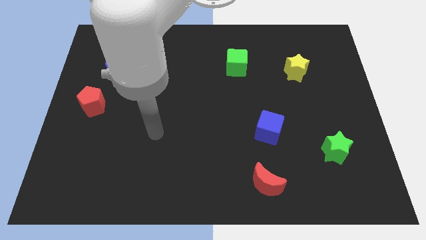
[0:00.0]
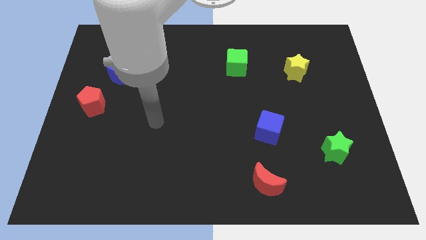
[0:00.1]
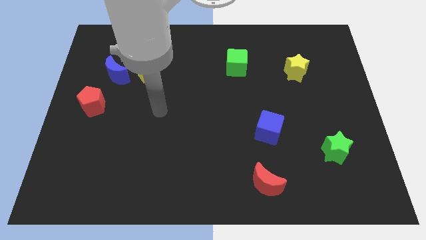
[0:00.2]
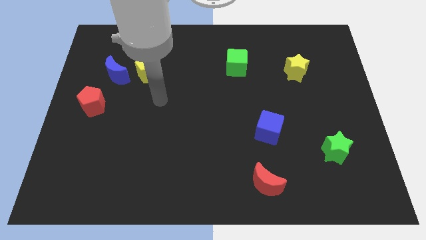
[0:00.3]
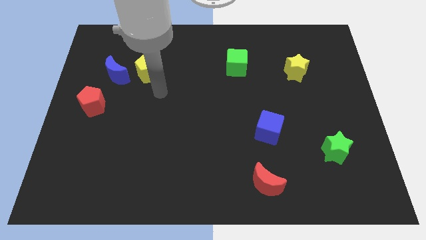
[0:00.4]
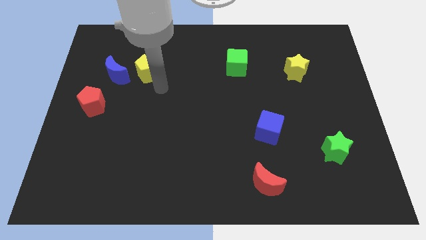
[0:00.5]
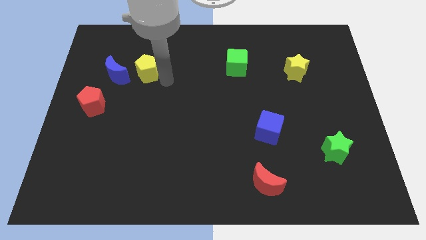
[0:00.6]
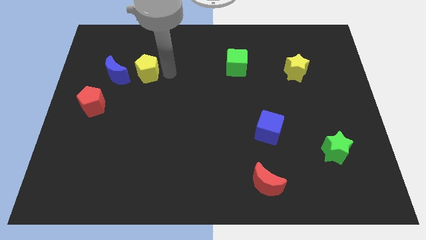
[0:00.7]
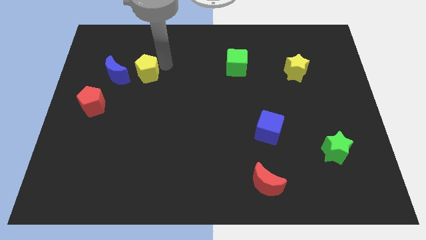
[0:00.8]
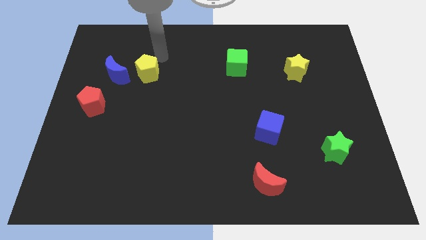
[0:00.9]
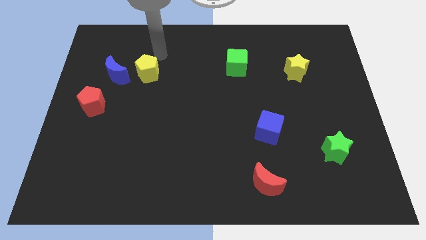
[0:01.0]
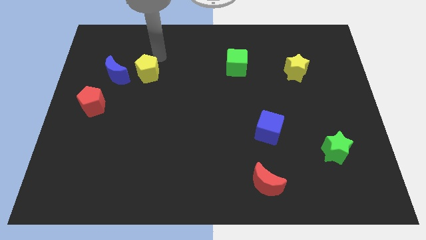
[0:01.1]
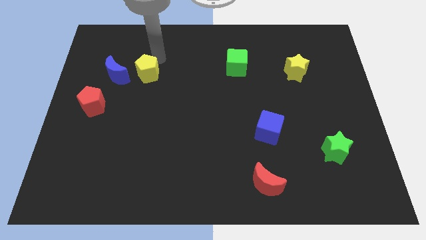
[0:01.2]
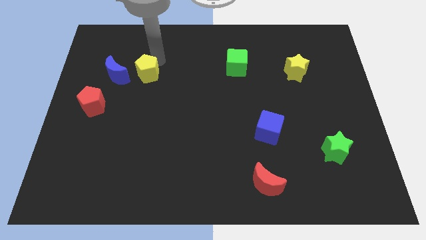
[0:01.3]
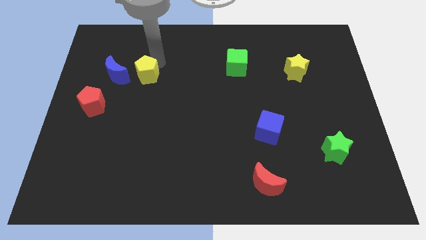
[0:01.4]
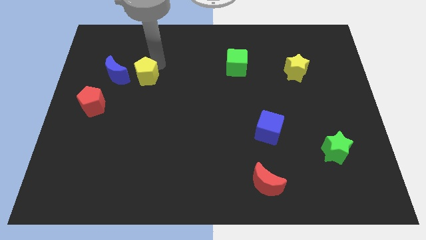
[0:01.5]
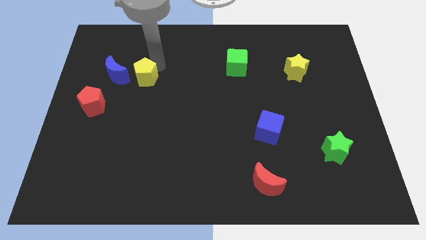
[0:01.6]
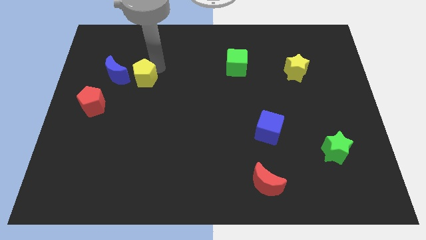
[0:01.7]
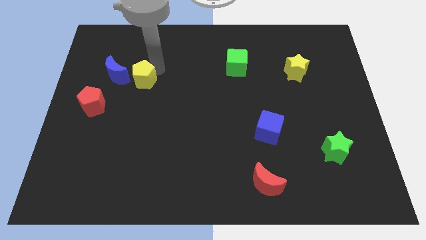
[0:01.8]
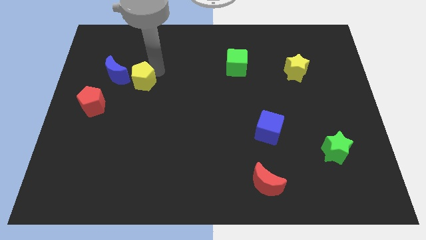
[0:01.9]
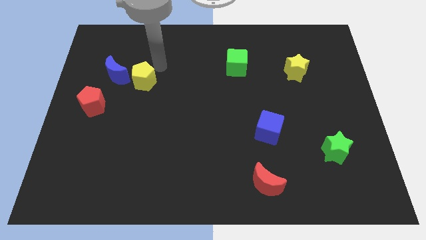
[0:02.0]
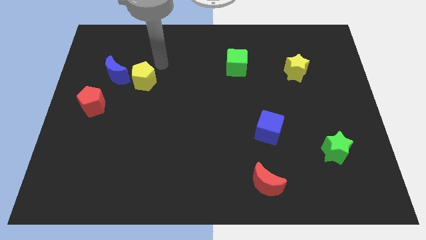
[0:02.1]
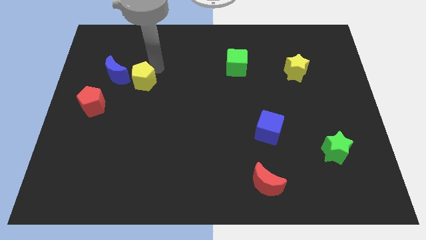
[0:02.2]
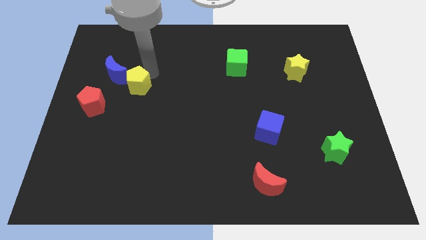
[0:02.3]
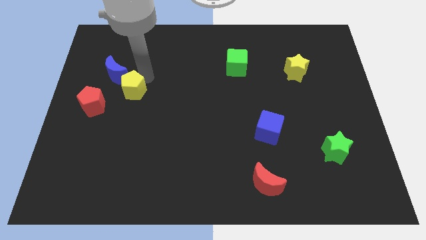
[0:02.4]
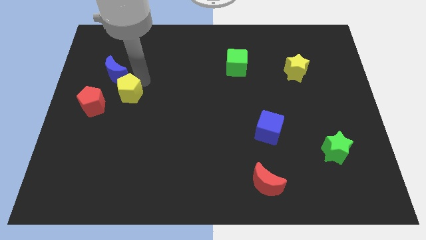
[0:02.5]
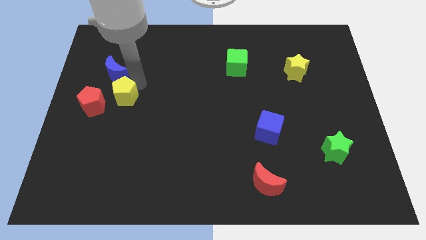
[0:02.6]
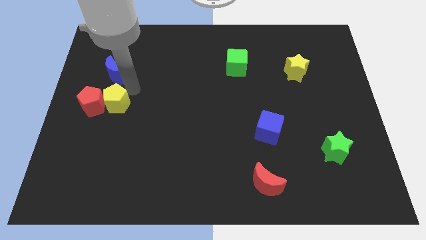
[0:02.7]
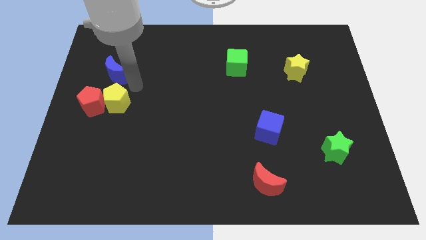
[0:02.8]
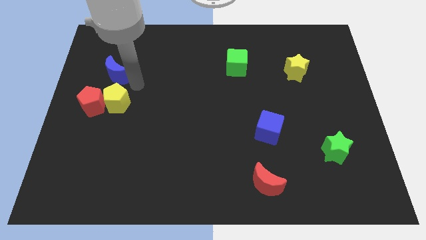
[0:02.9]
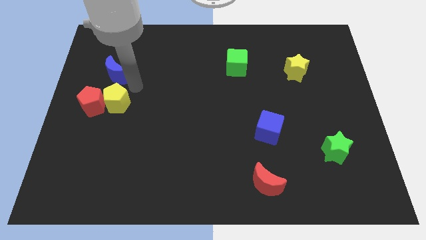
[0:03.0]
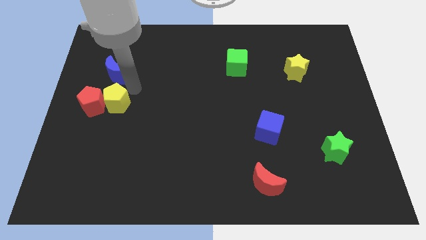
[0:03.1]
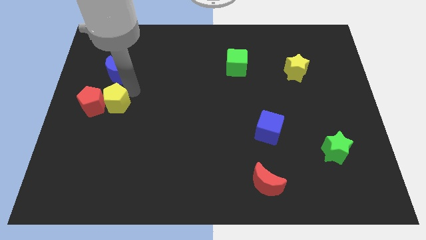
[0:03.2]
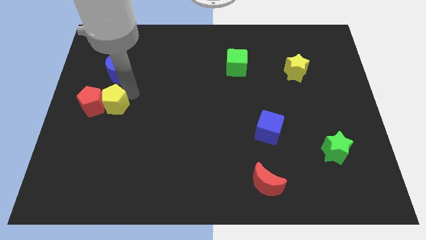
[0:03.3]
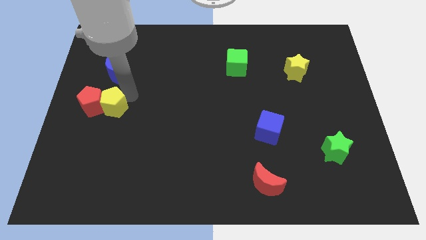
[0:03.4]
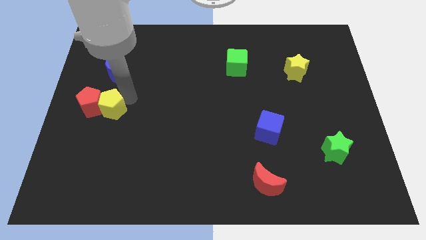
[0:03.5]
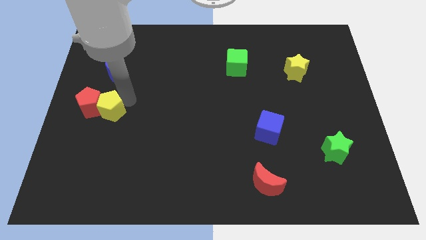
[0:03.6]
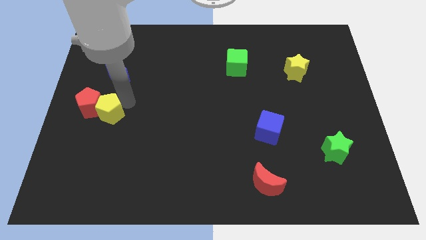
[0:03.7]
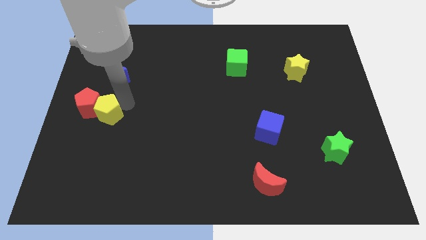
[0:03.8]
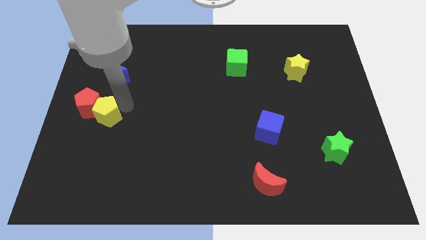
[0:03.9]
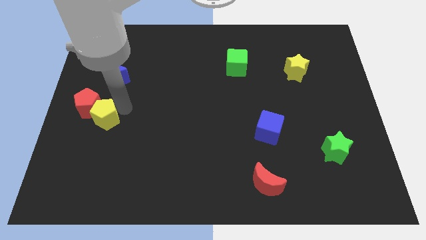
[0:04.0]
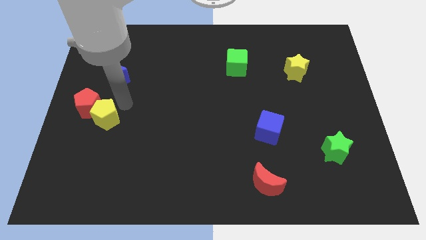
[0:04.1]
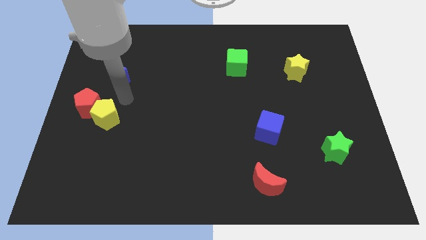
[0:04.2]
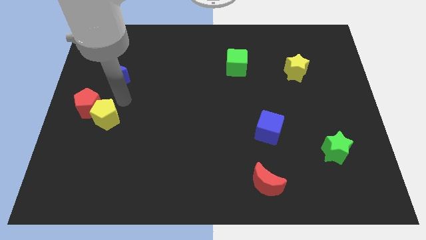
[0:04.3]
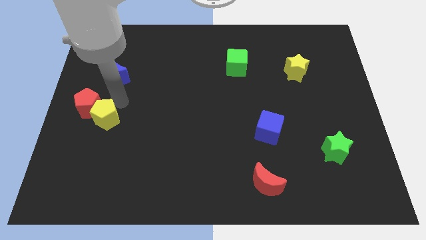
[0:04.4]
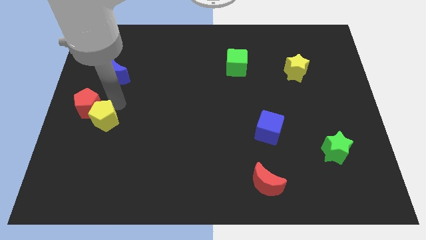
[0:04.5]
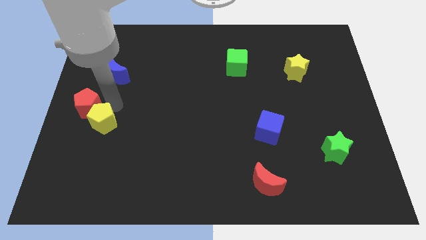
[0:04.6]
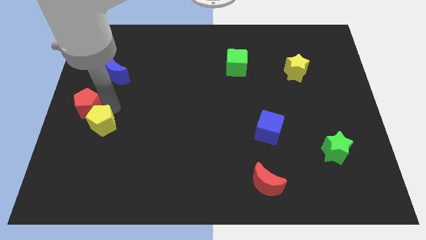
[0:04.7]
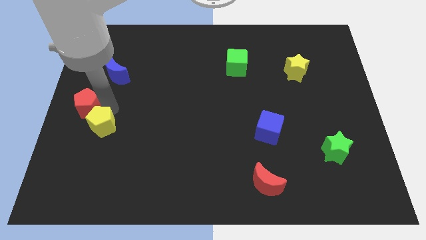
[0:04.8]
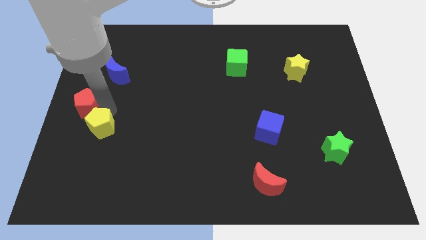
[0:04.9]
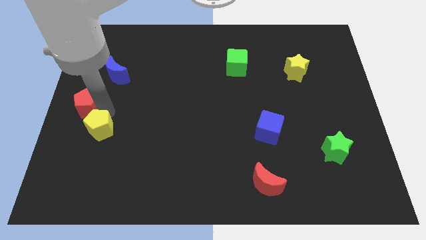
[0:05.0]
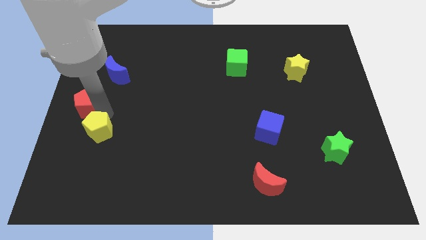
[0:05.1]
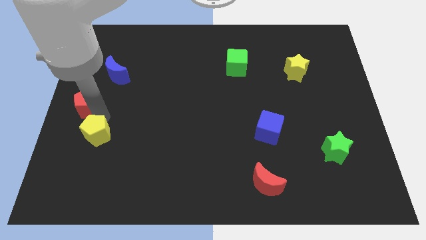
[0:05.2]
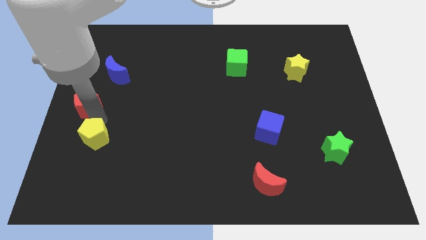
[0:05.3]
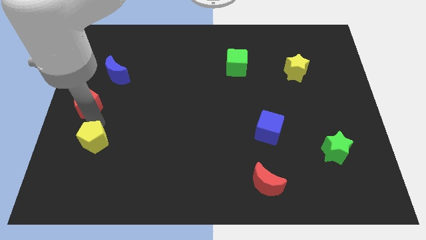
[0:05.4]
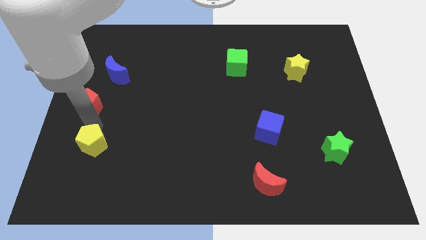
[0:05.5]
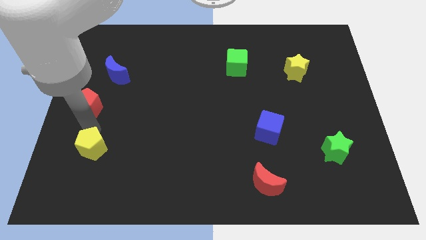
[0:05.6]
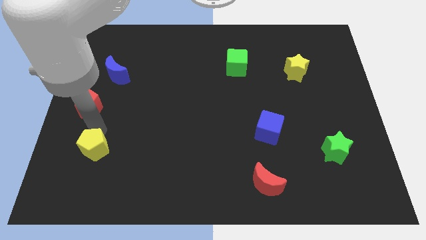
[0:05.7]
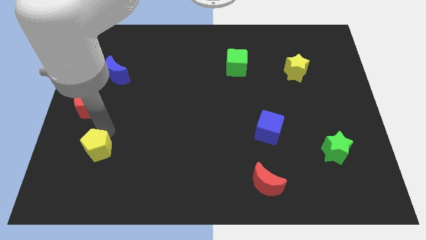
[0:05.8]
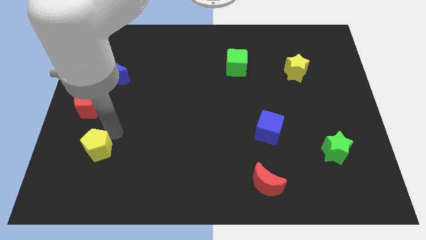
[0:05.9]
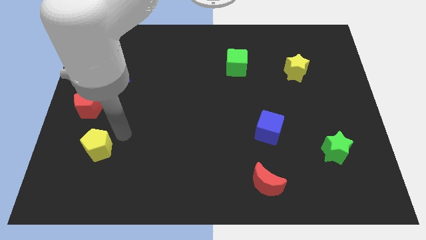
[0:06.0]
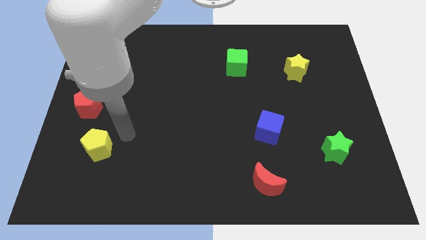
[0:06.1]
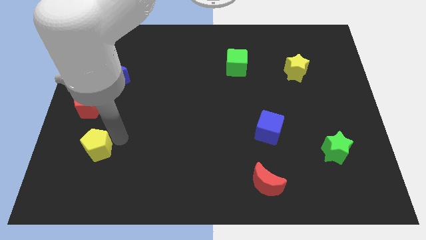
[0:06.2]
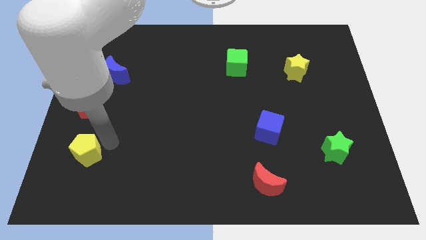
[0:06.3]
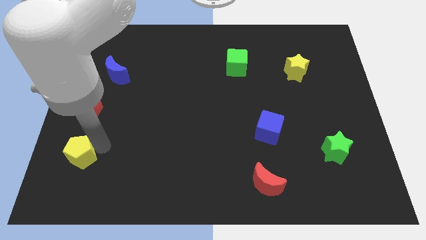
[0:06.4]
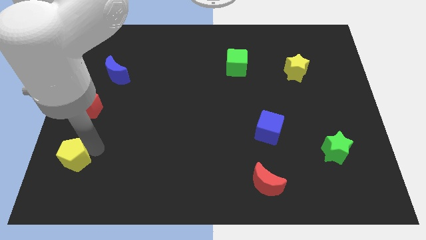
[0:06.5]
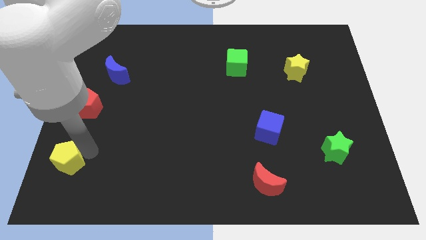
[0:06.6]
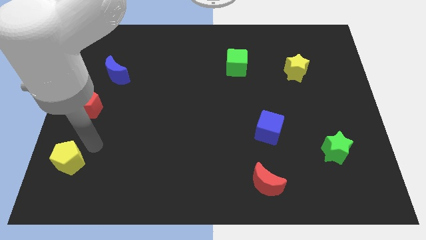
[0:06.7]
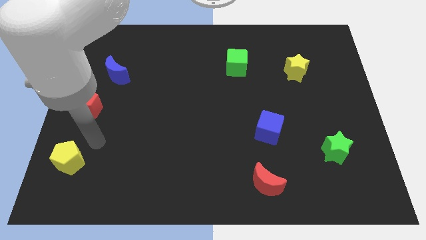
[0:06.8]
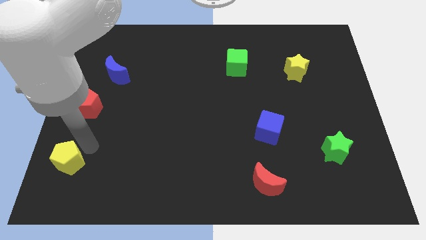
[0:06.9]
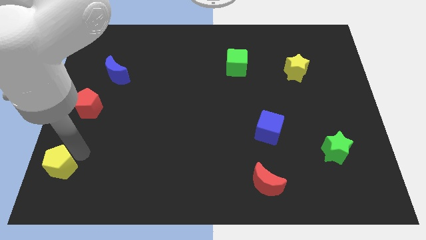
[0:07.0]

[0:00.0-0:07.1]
slide the yellow pentagon to the bottom left of the board
